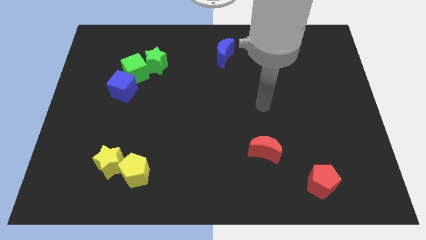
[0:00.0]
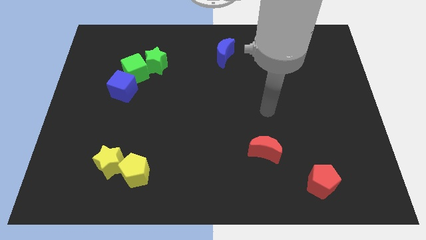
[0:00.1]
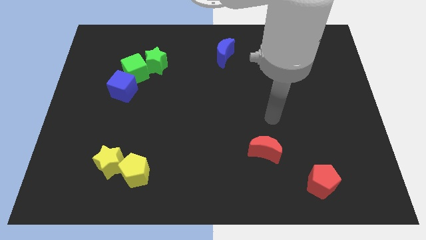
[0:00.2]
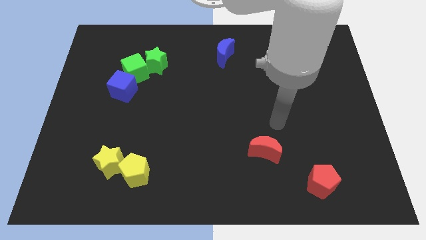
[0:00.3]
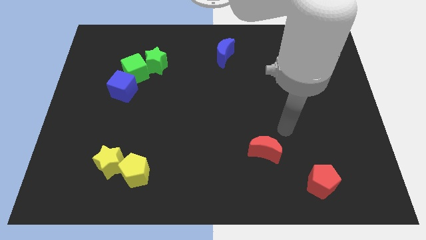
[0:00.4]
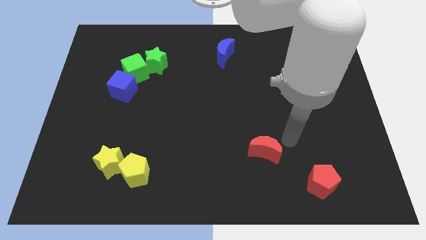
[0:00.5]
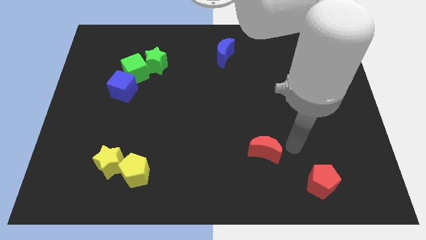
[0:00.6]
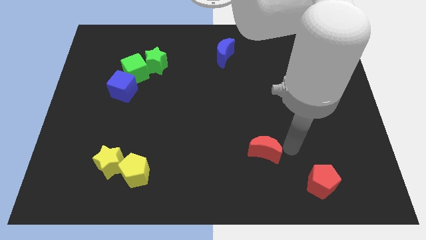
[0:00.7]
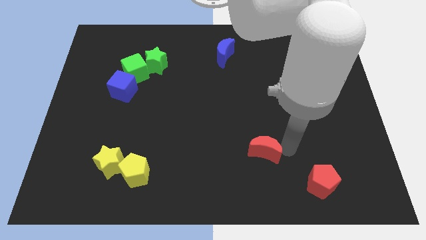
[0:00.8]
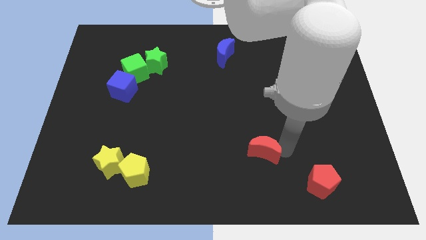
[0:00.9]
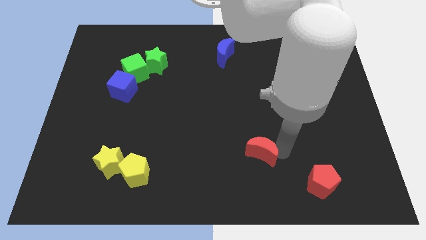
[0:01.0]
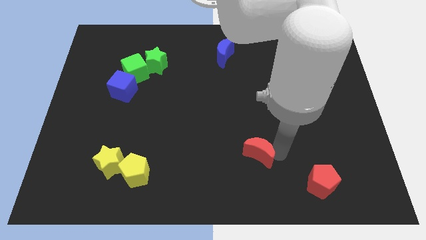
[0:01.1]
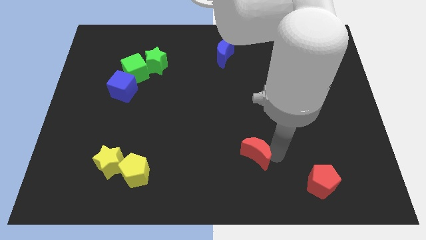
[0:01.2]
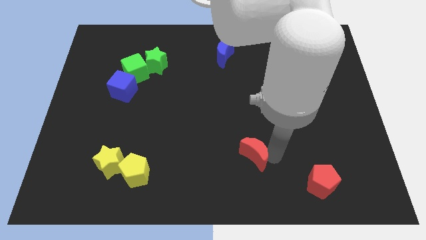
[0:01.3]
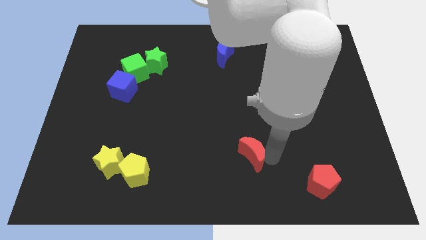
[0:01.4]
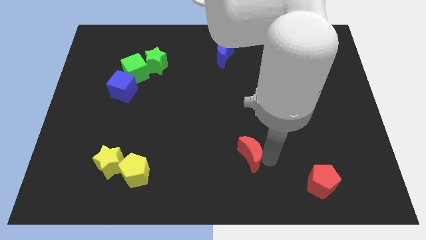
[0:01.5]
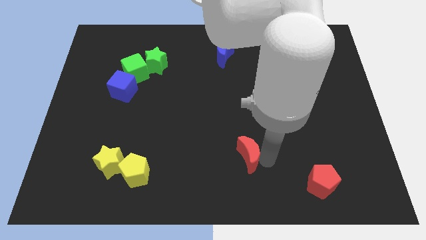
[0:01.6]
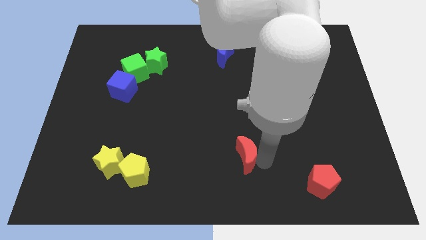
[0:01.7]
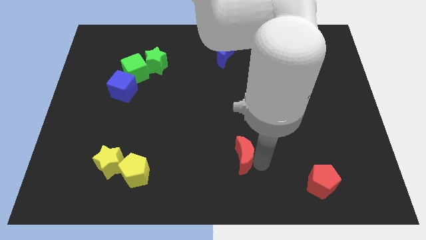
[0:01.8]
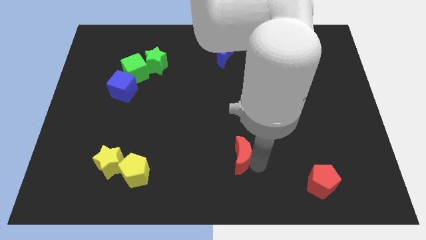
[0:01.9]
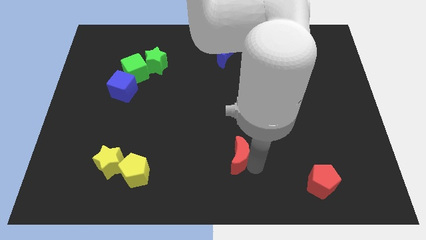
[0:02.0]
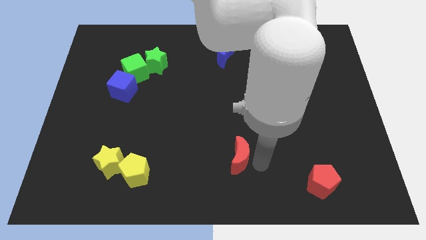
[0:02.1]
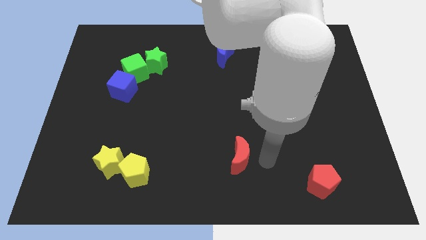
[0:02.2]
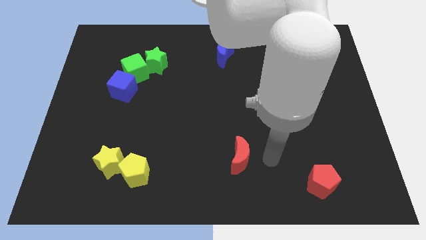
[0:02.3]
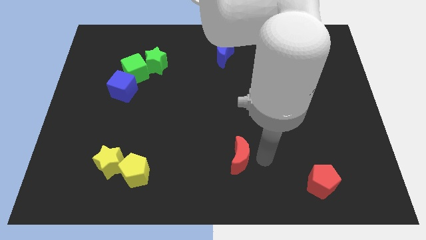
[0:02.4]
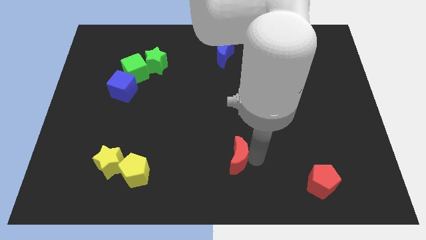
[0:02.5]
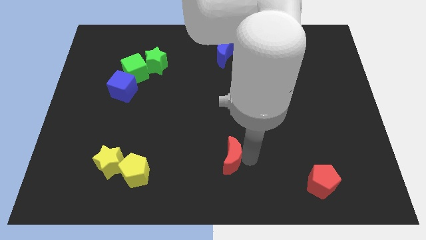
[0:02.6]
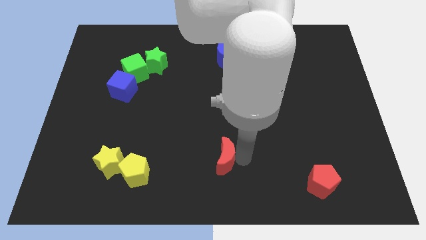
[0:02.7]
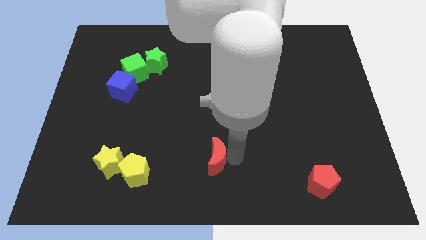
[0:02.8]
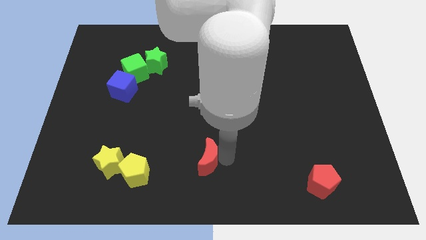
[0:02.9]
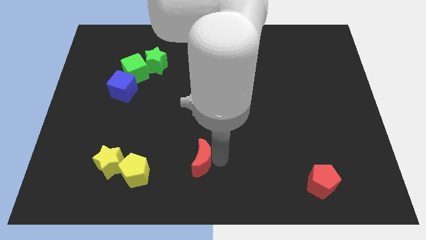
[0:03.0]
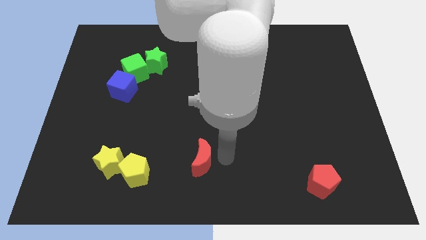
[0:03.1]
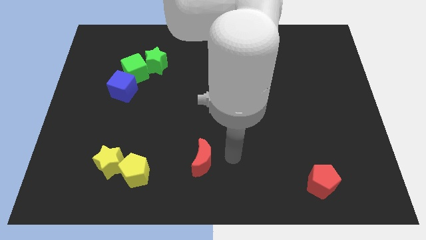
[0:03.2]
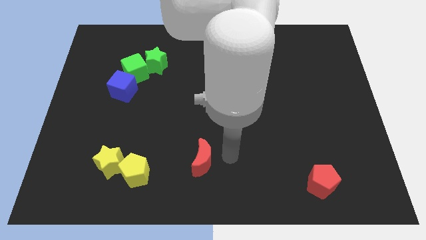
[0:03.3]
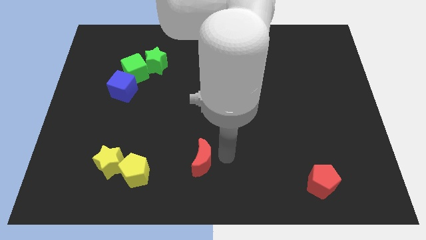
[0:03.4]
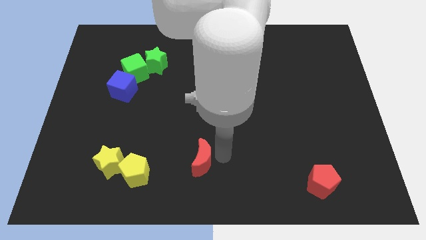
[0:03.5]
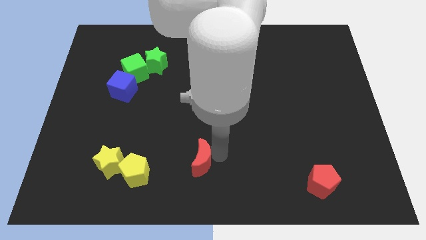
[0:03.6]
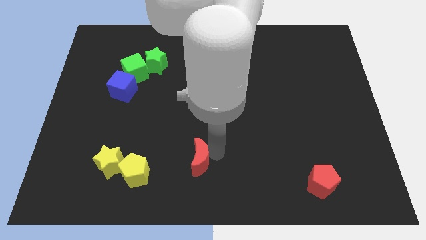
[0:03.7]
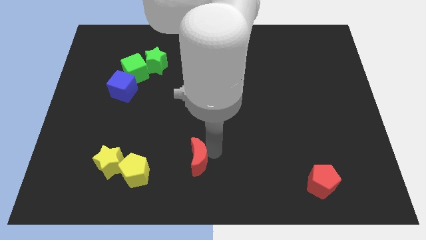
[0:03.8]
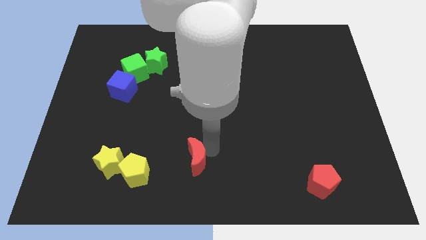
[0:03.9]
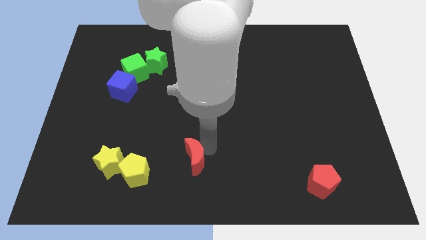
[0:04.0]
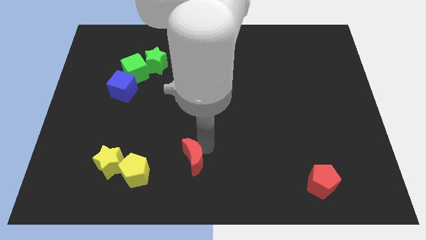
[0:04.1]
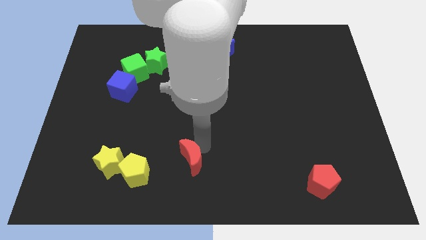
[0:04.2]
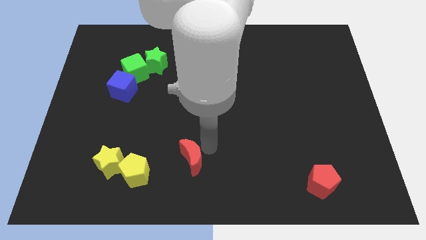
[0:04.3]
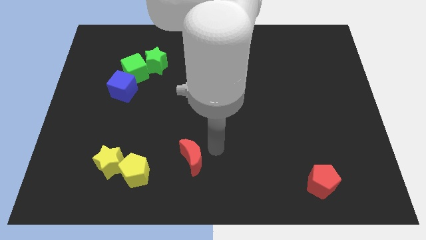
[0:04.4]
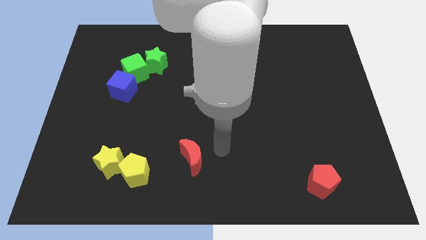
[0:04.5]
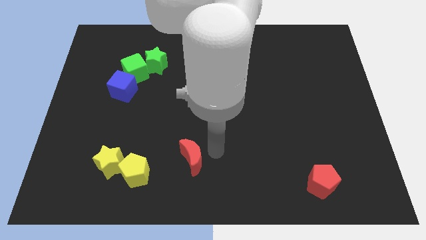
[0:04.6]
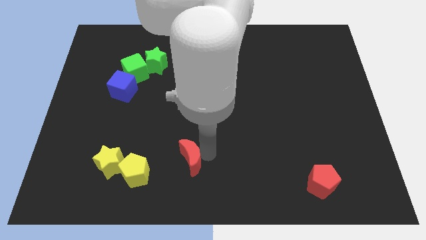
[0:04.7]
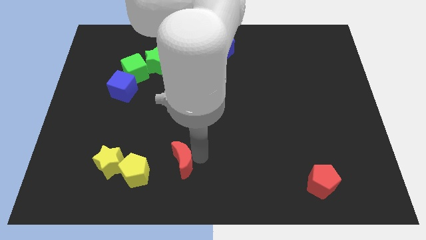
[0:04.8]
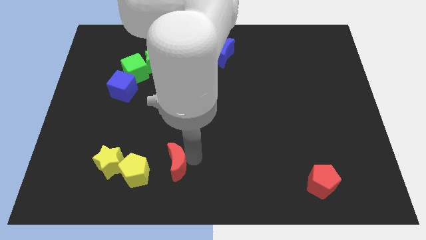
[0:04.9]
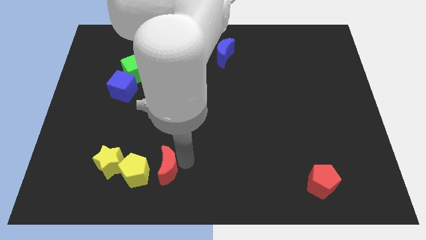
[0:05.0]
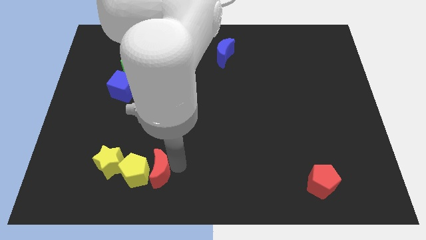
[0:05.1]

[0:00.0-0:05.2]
slide the red moon next to the yellow pentagon
